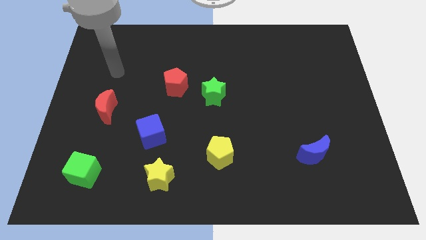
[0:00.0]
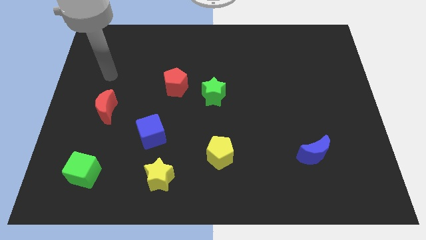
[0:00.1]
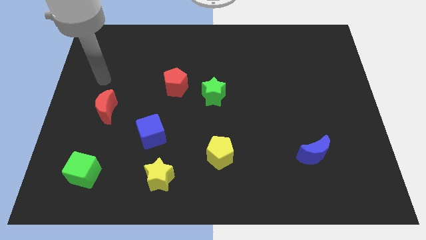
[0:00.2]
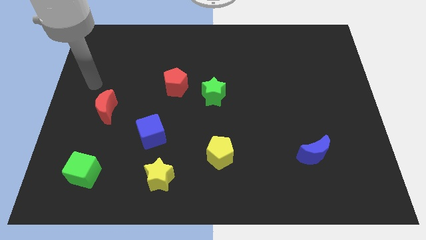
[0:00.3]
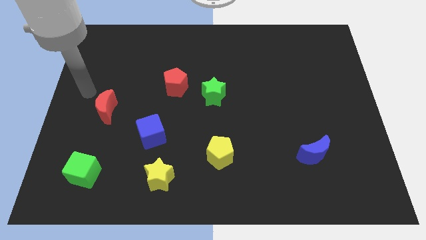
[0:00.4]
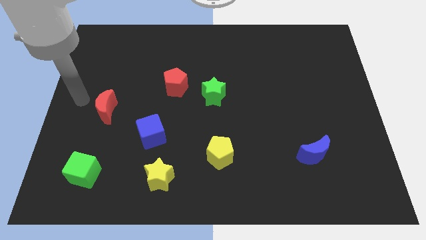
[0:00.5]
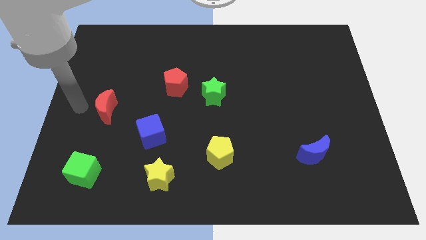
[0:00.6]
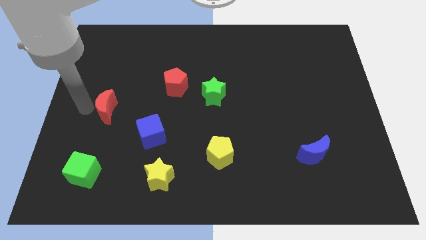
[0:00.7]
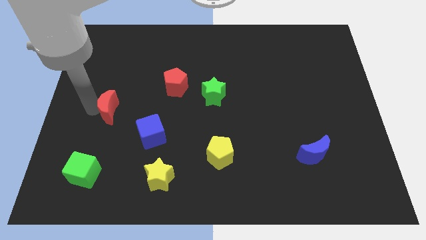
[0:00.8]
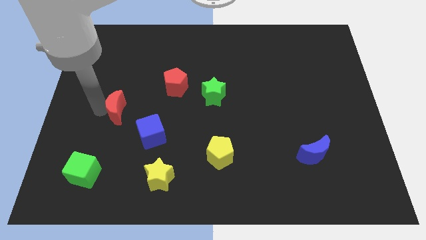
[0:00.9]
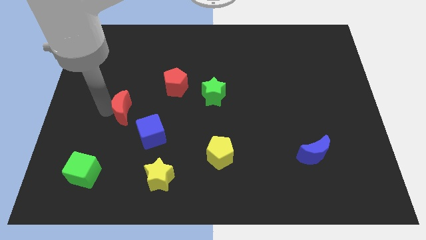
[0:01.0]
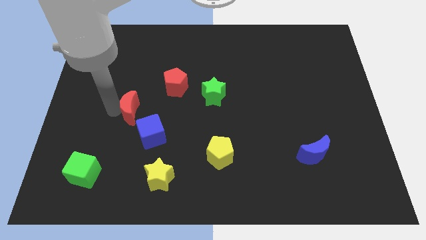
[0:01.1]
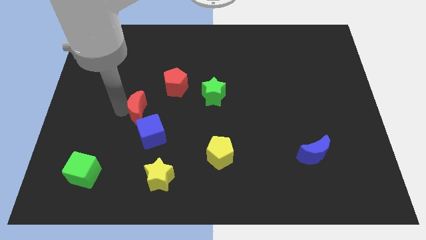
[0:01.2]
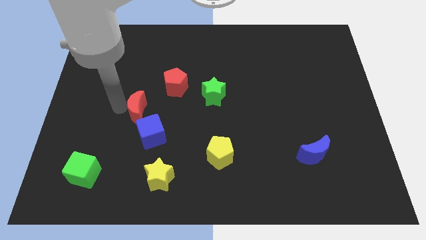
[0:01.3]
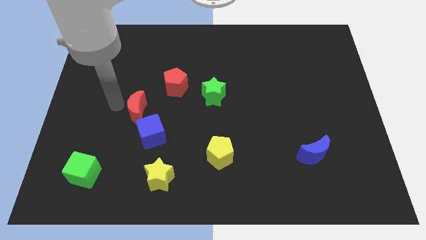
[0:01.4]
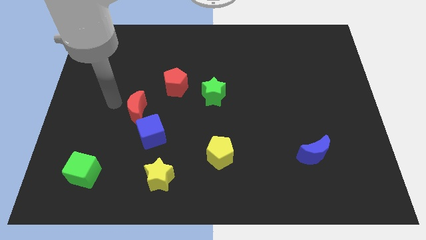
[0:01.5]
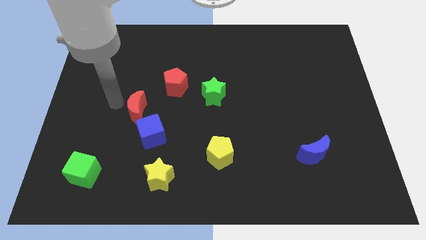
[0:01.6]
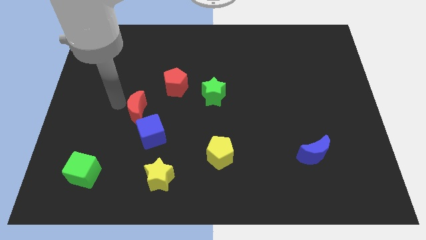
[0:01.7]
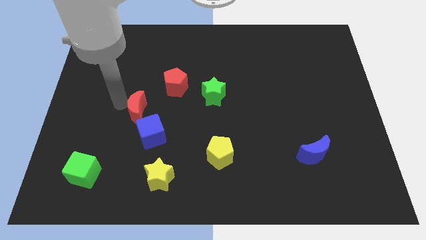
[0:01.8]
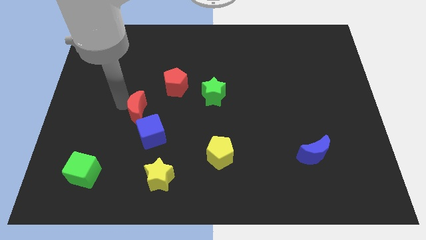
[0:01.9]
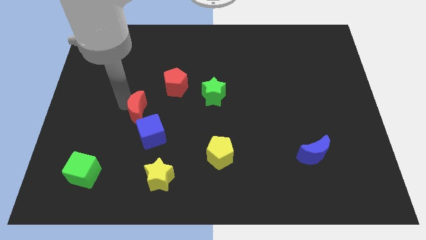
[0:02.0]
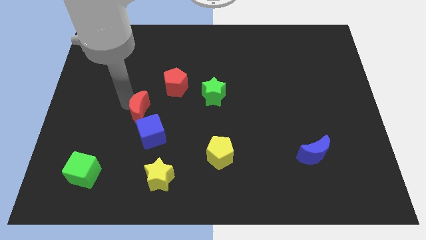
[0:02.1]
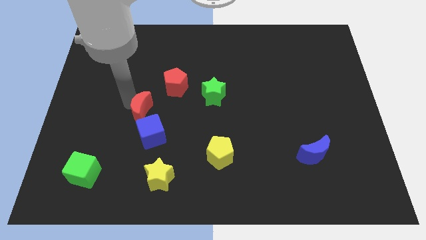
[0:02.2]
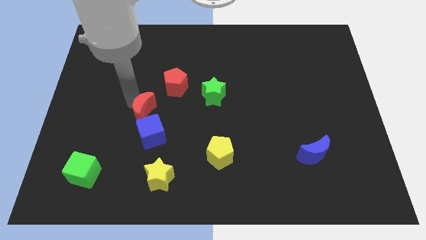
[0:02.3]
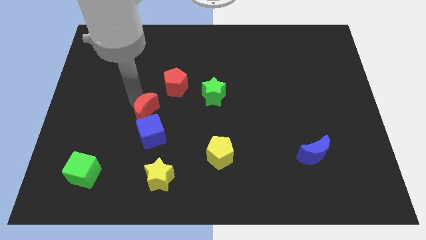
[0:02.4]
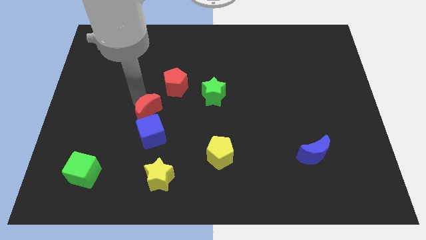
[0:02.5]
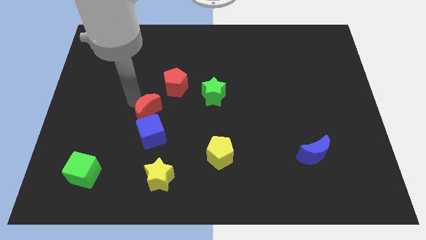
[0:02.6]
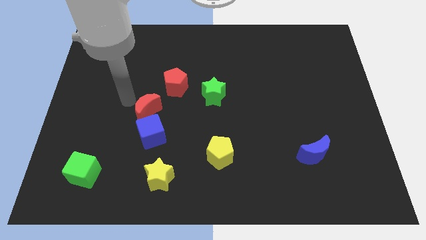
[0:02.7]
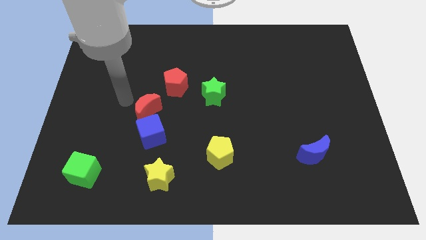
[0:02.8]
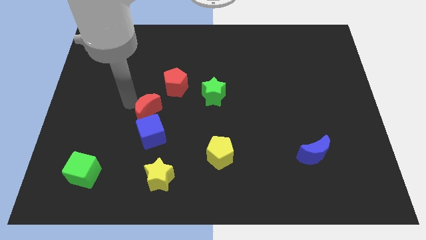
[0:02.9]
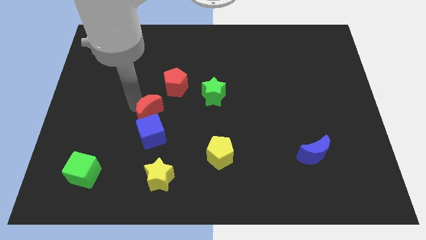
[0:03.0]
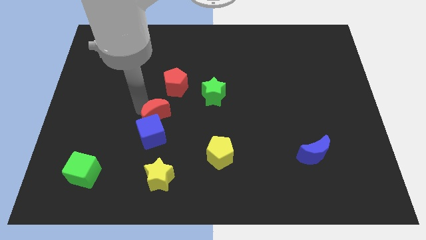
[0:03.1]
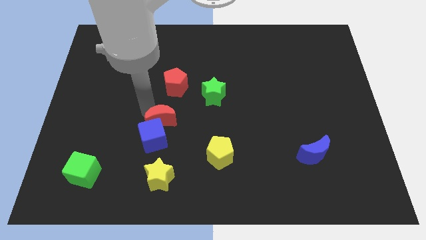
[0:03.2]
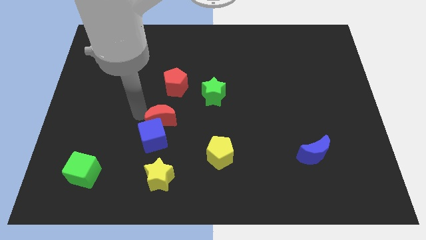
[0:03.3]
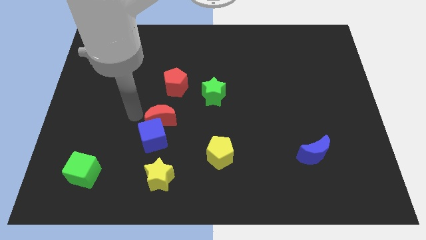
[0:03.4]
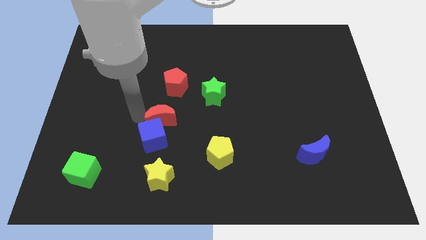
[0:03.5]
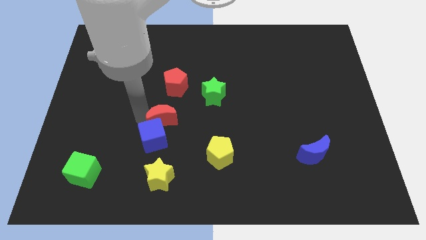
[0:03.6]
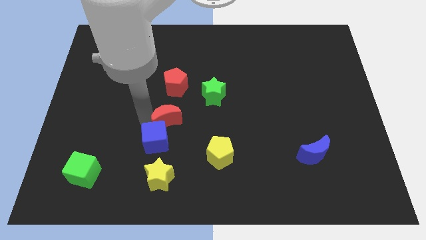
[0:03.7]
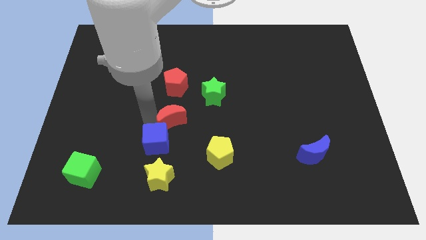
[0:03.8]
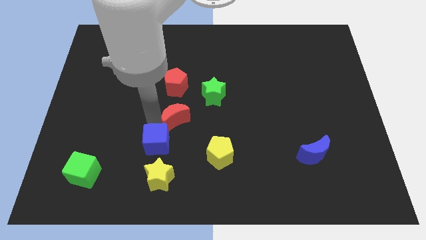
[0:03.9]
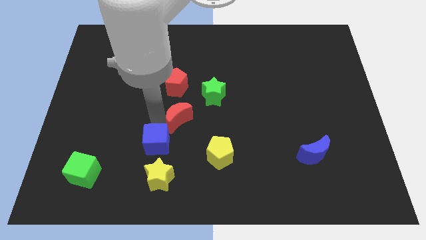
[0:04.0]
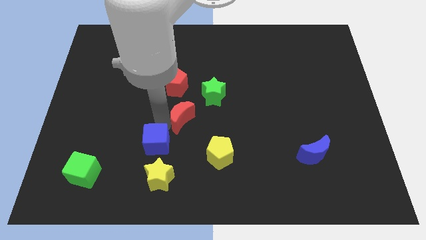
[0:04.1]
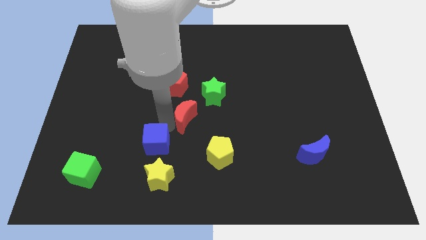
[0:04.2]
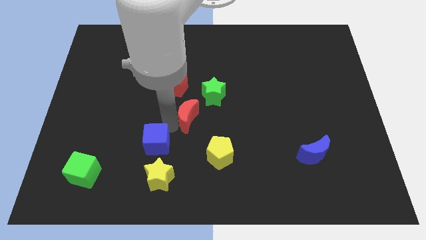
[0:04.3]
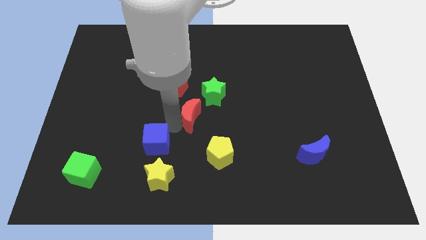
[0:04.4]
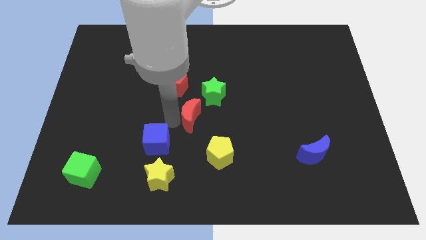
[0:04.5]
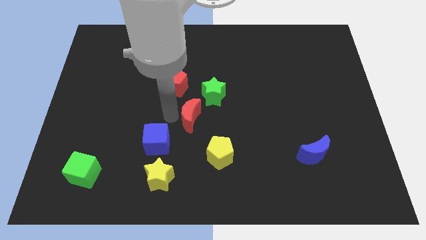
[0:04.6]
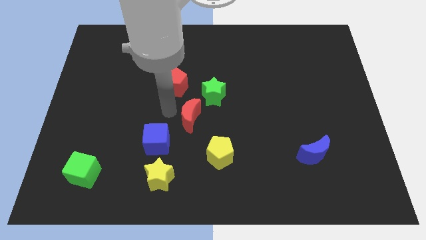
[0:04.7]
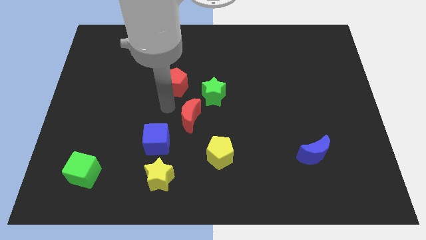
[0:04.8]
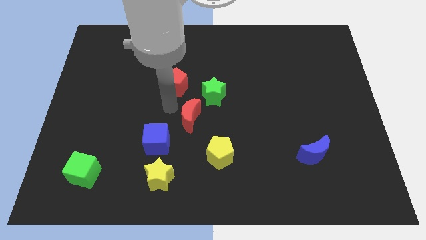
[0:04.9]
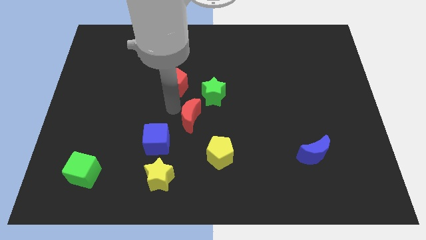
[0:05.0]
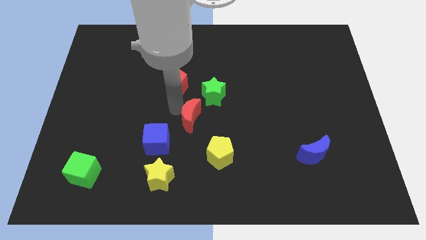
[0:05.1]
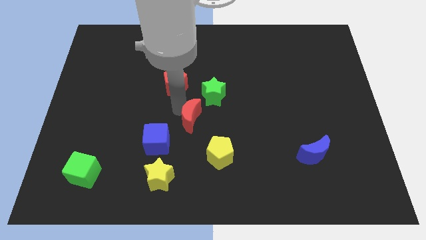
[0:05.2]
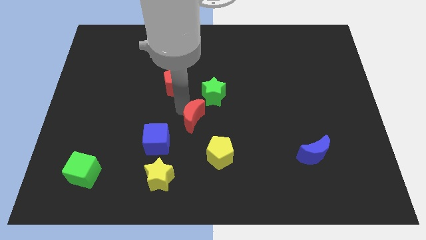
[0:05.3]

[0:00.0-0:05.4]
put the red moon below the green star
